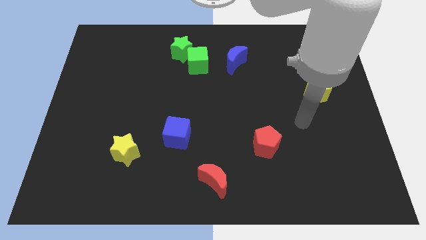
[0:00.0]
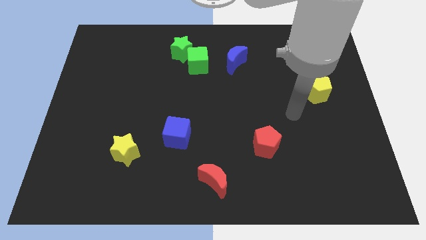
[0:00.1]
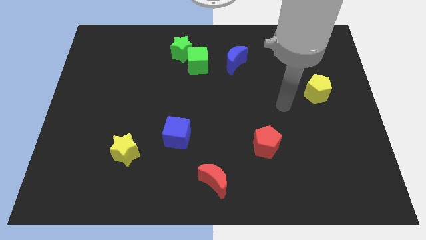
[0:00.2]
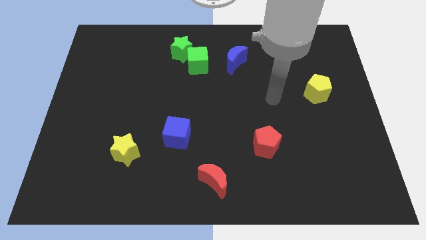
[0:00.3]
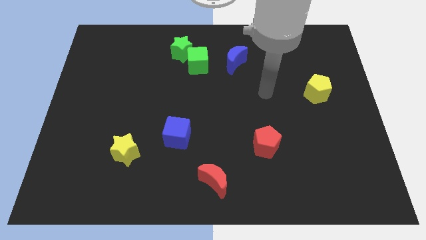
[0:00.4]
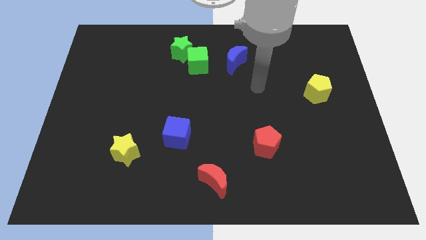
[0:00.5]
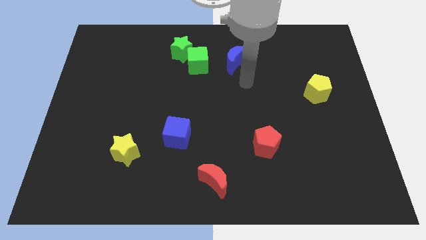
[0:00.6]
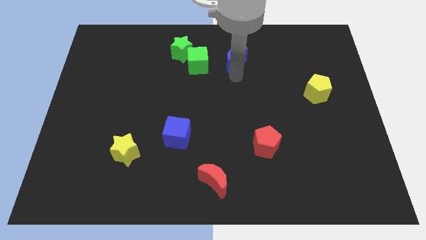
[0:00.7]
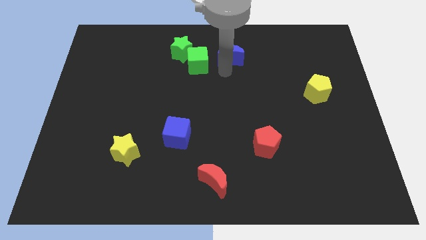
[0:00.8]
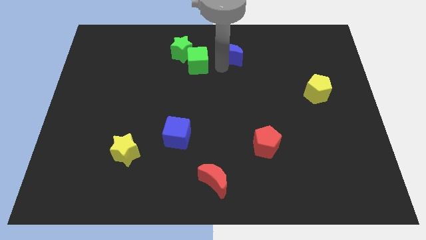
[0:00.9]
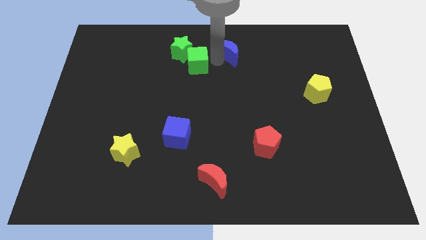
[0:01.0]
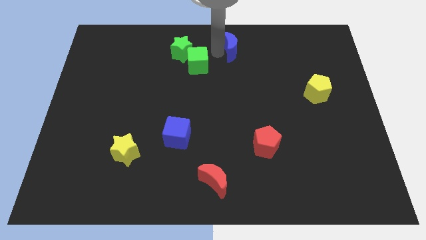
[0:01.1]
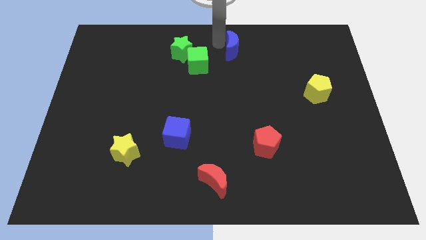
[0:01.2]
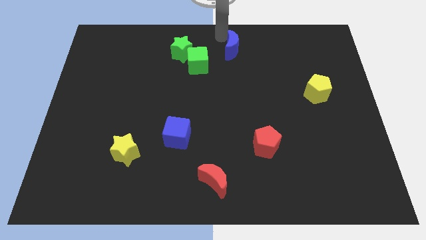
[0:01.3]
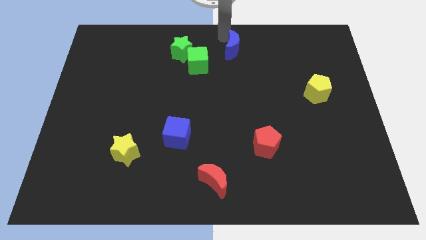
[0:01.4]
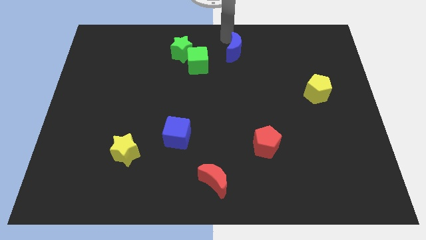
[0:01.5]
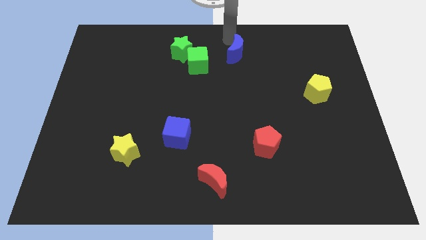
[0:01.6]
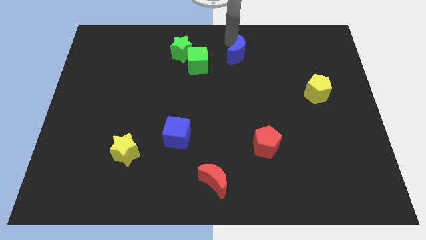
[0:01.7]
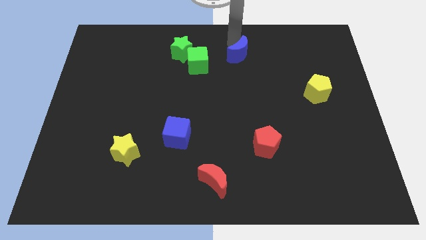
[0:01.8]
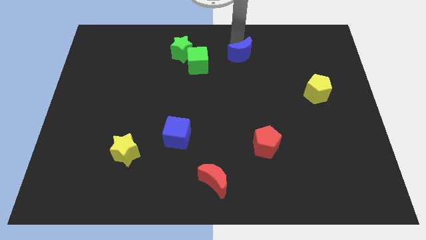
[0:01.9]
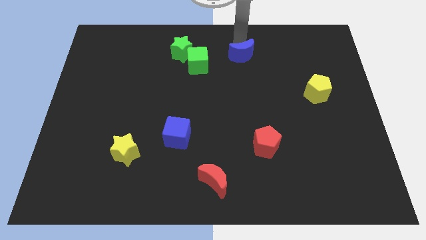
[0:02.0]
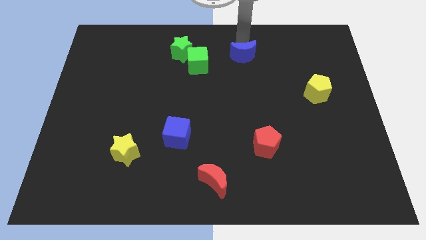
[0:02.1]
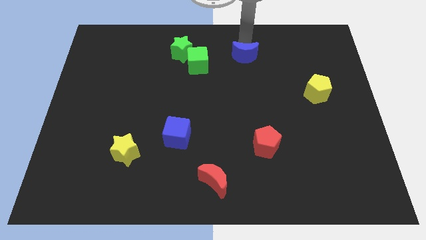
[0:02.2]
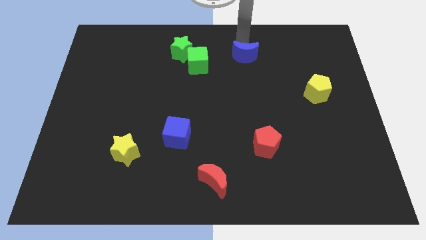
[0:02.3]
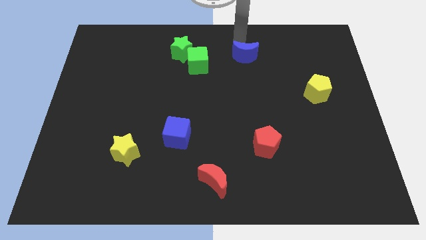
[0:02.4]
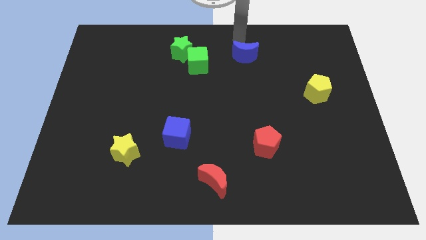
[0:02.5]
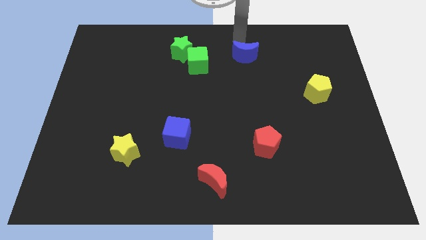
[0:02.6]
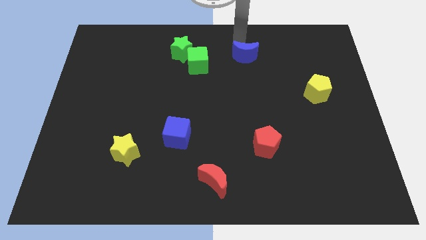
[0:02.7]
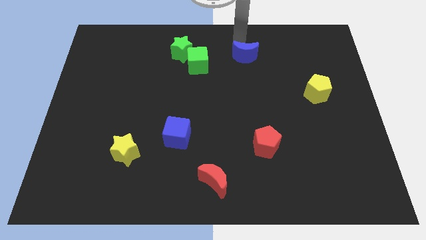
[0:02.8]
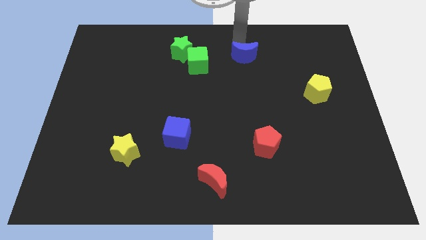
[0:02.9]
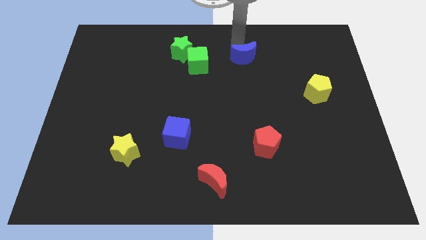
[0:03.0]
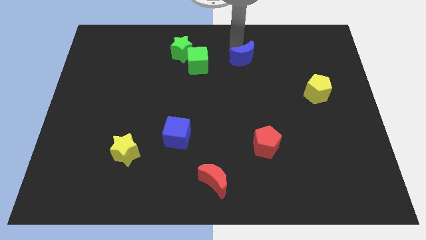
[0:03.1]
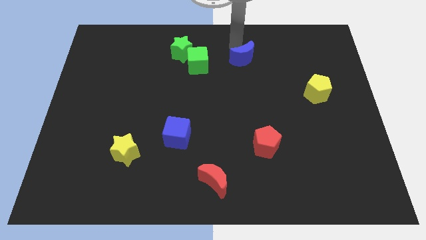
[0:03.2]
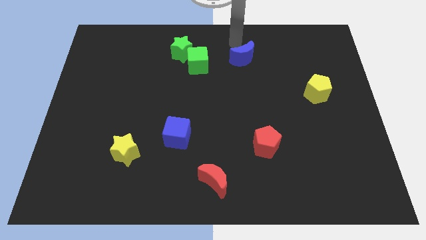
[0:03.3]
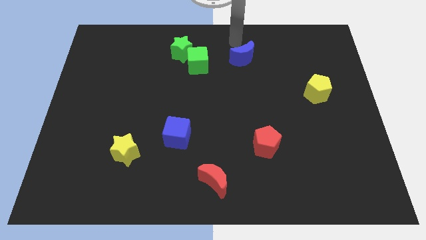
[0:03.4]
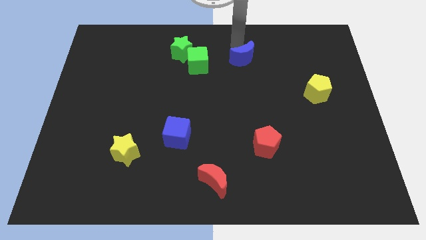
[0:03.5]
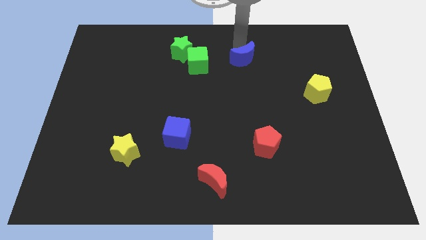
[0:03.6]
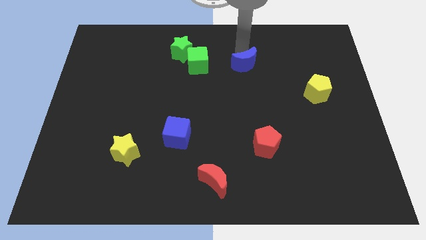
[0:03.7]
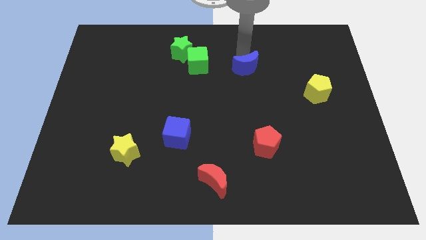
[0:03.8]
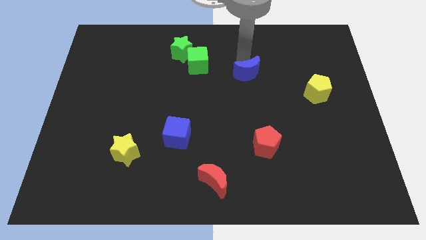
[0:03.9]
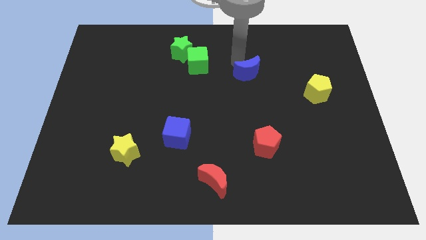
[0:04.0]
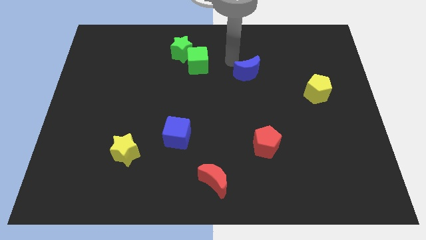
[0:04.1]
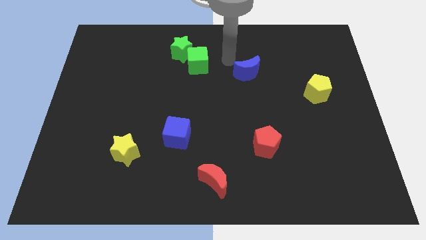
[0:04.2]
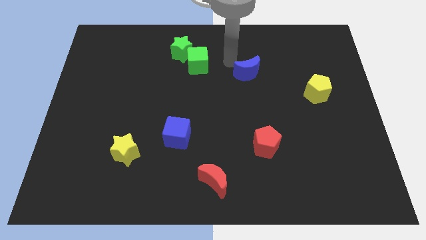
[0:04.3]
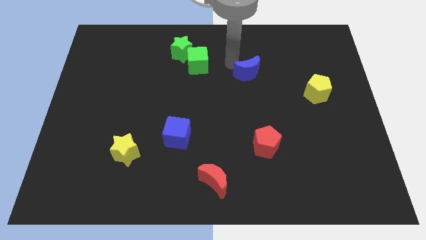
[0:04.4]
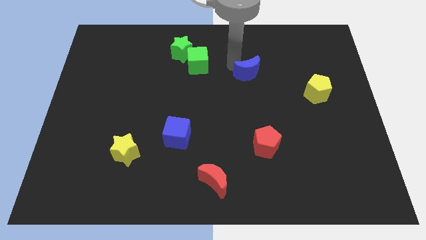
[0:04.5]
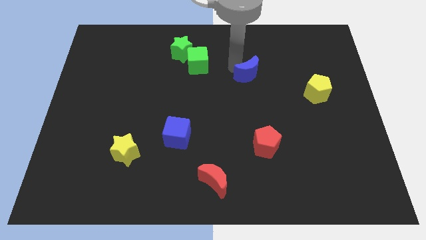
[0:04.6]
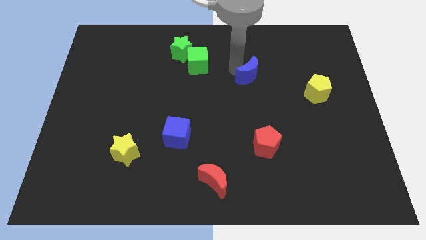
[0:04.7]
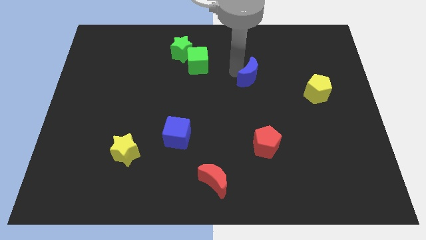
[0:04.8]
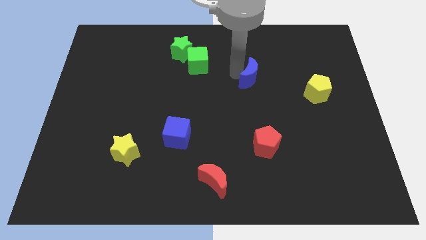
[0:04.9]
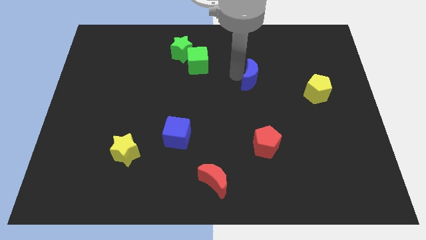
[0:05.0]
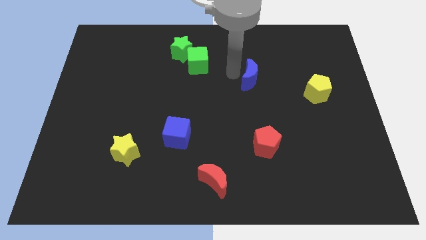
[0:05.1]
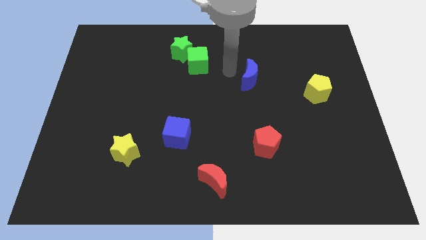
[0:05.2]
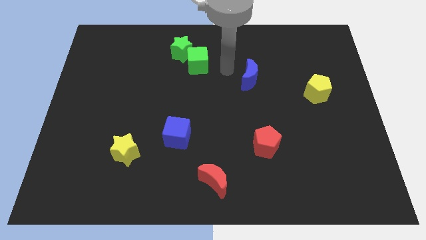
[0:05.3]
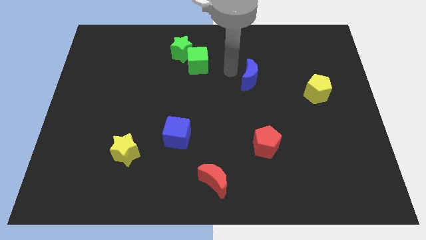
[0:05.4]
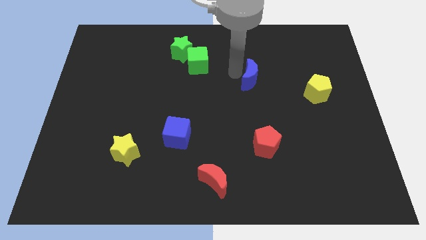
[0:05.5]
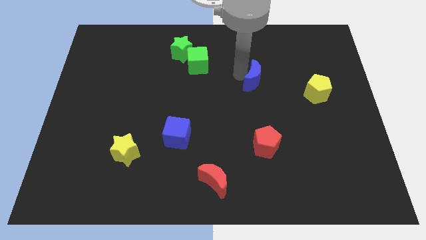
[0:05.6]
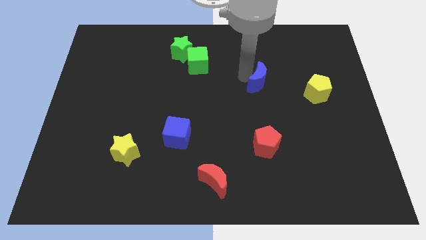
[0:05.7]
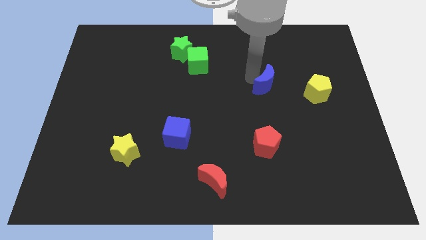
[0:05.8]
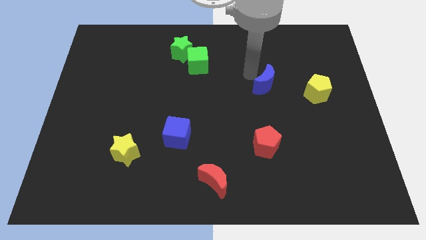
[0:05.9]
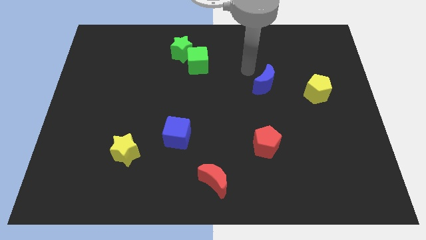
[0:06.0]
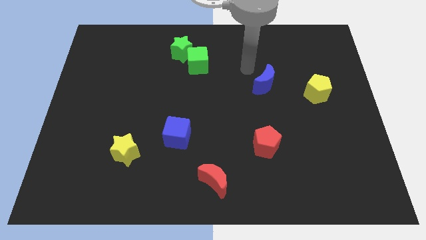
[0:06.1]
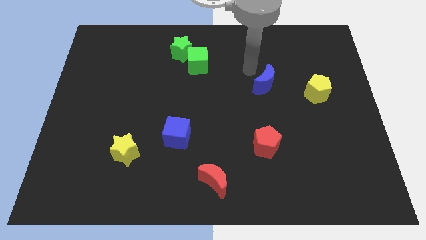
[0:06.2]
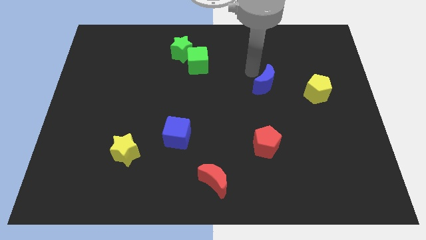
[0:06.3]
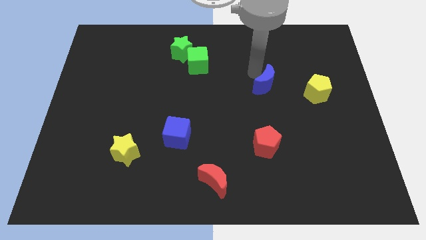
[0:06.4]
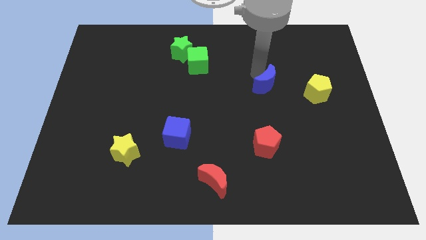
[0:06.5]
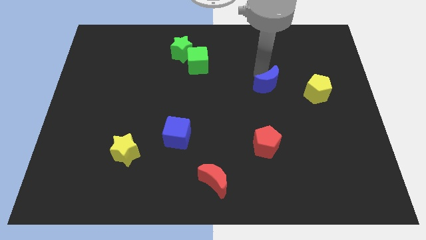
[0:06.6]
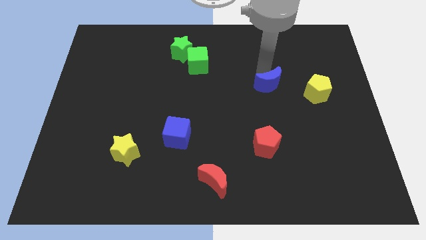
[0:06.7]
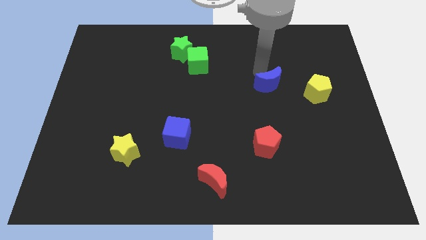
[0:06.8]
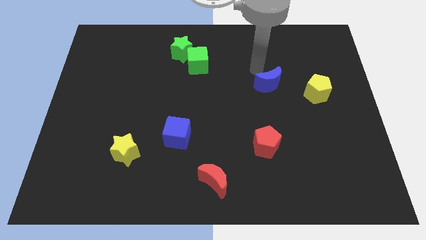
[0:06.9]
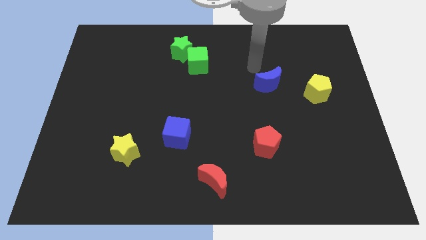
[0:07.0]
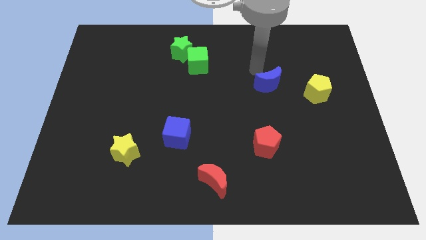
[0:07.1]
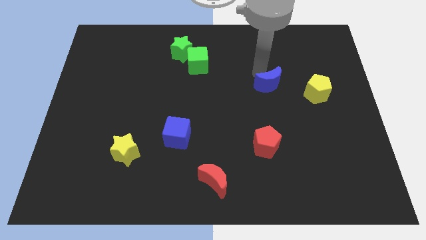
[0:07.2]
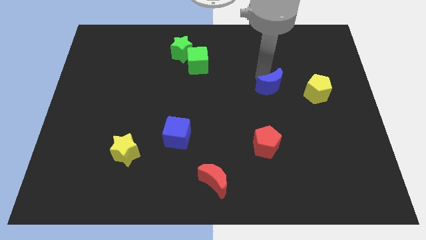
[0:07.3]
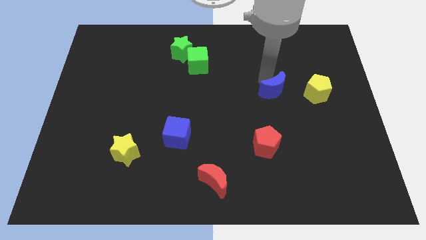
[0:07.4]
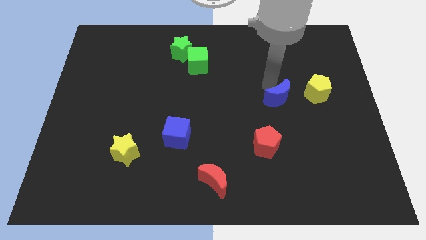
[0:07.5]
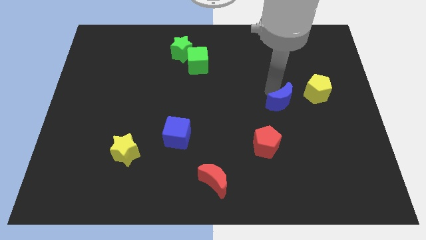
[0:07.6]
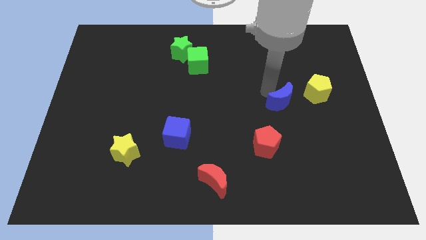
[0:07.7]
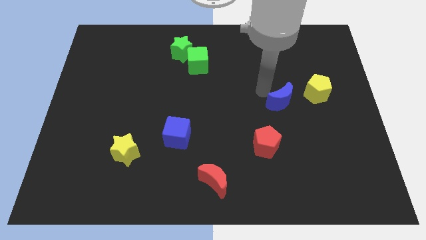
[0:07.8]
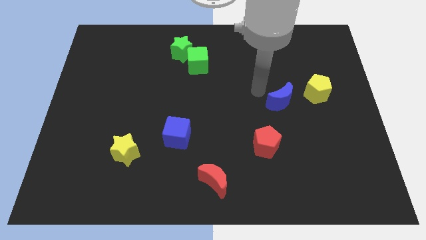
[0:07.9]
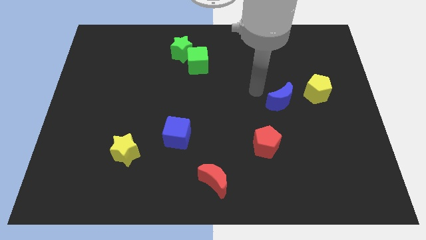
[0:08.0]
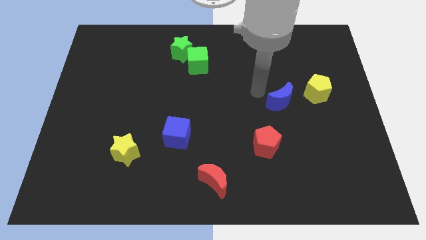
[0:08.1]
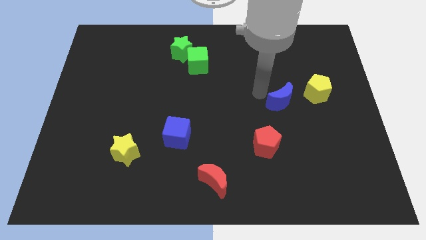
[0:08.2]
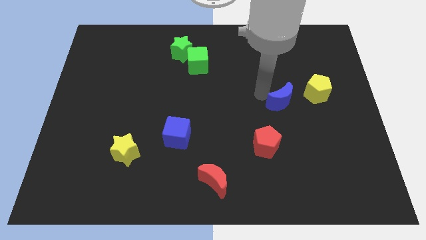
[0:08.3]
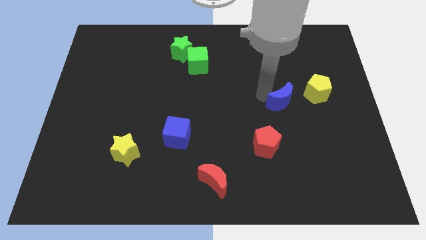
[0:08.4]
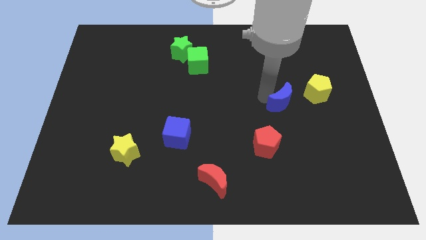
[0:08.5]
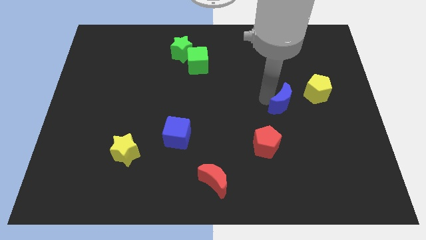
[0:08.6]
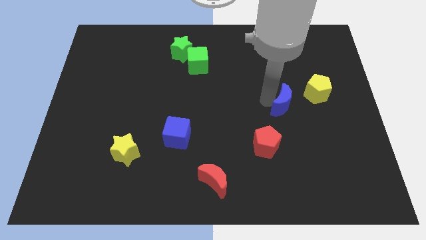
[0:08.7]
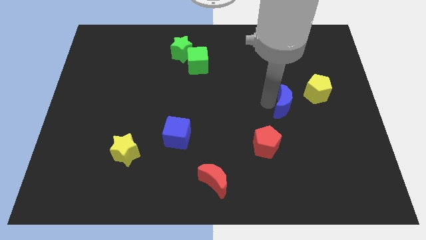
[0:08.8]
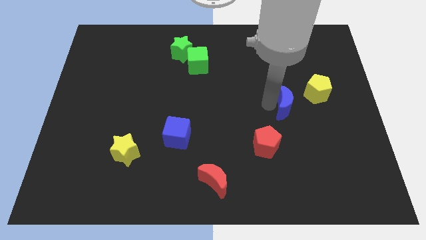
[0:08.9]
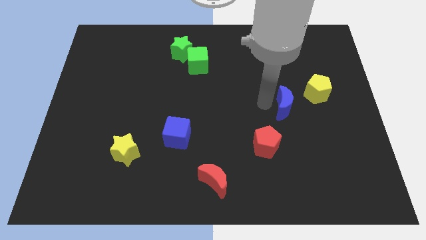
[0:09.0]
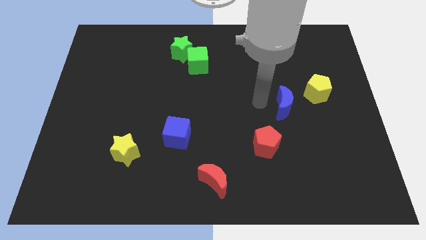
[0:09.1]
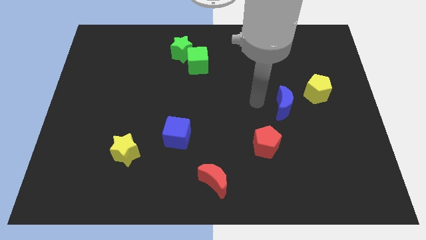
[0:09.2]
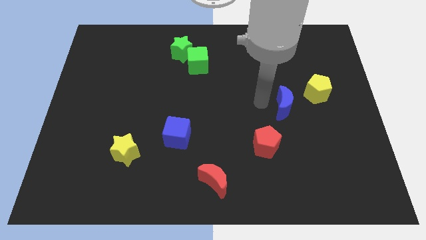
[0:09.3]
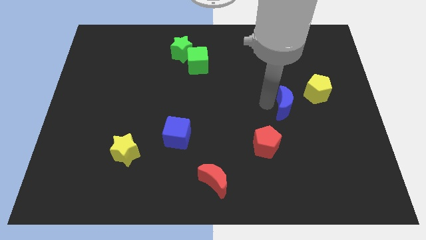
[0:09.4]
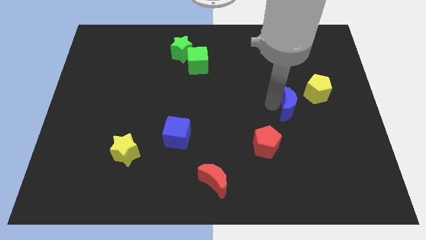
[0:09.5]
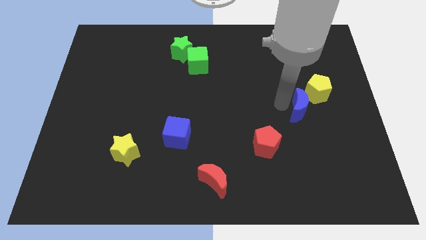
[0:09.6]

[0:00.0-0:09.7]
put the blue moon to the bottom of the yellow pentagon
